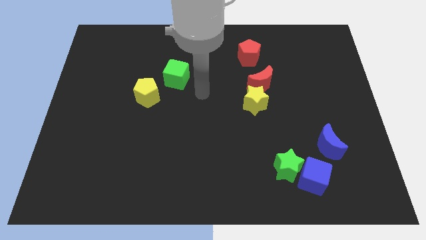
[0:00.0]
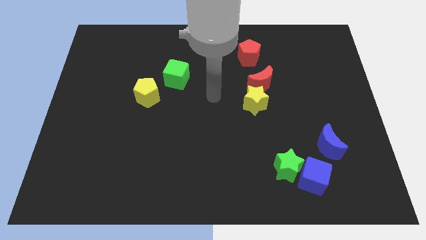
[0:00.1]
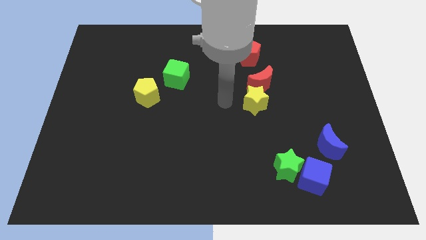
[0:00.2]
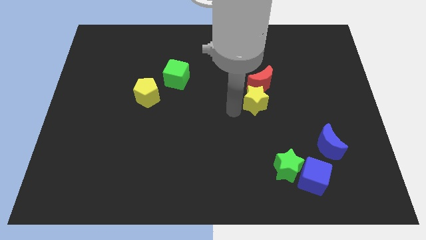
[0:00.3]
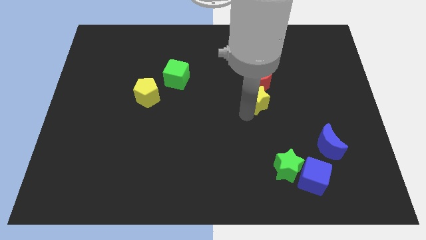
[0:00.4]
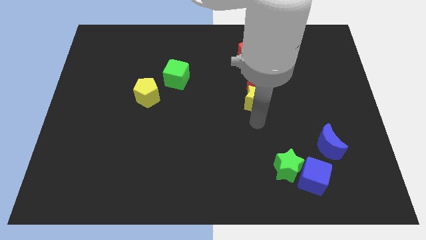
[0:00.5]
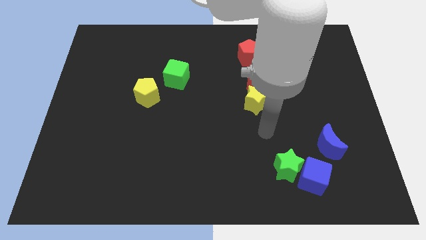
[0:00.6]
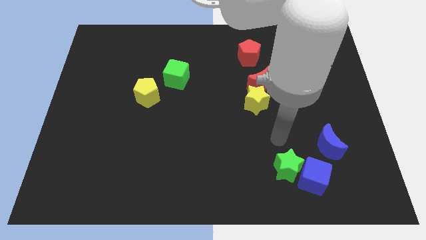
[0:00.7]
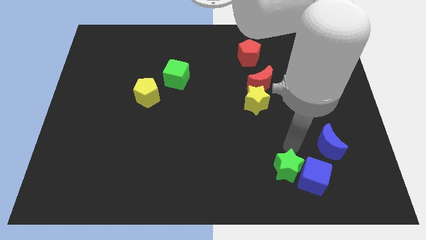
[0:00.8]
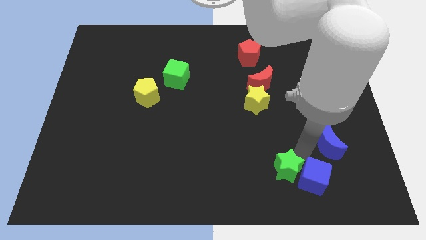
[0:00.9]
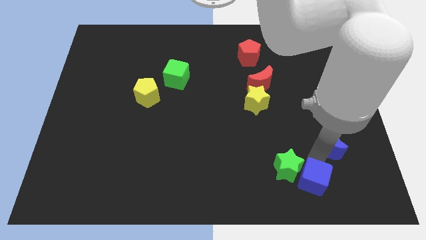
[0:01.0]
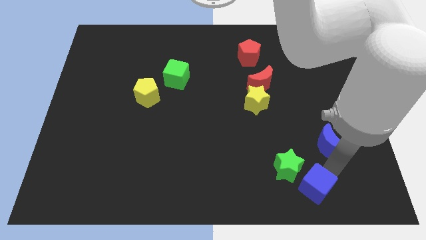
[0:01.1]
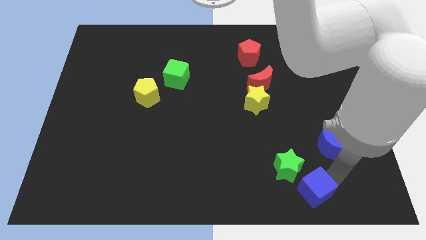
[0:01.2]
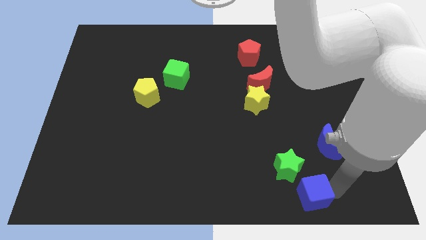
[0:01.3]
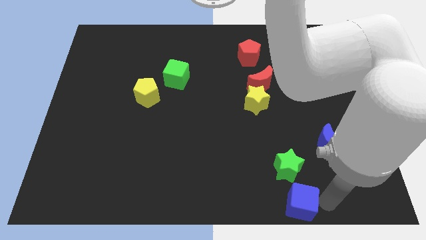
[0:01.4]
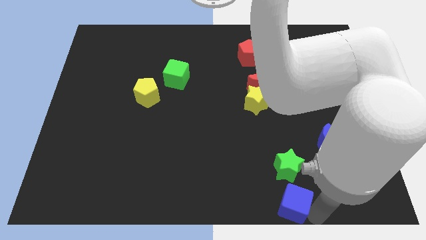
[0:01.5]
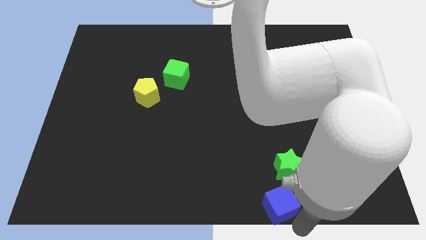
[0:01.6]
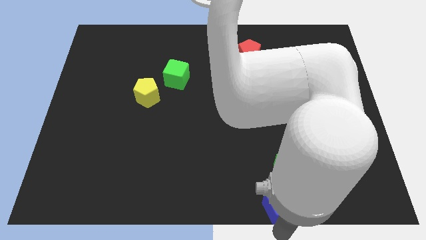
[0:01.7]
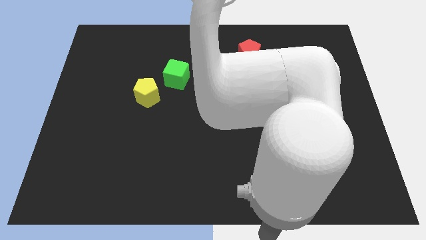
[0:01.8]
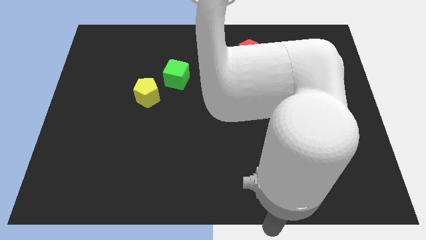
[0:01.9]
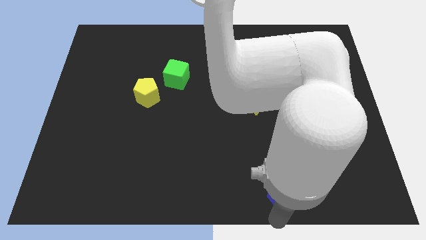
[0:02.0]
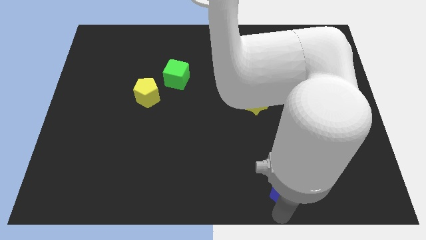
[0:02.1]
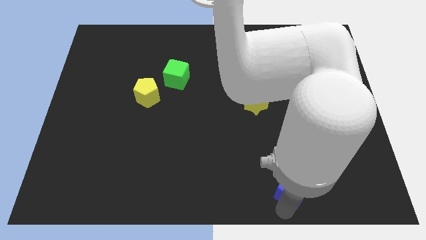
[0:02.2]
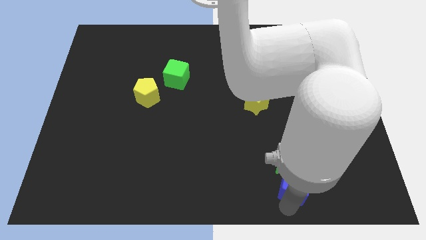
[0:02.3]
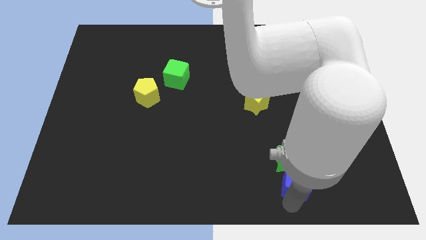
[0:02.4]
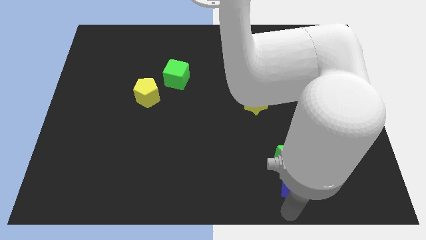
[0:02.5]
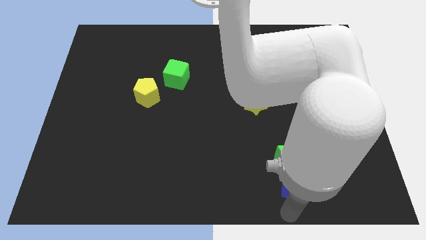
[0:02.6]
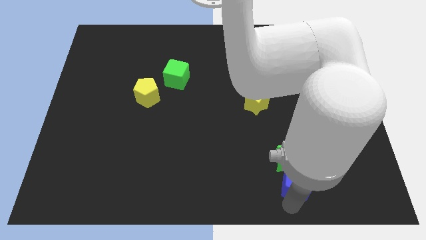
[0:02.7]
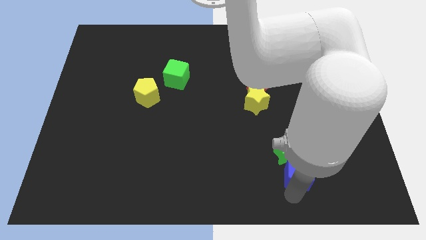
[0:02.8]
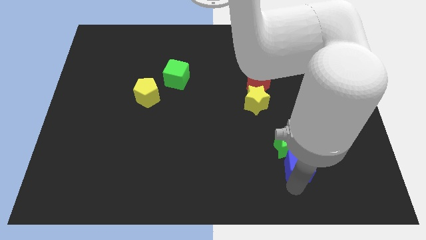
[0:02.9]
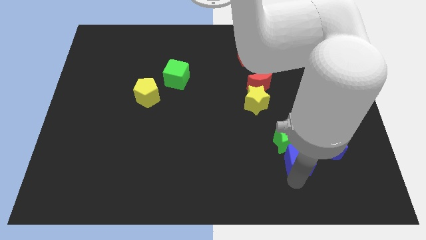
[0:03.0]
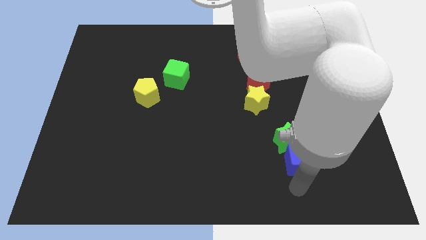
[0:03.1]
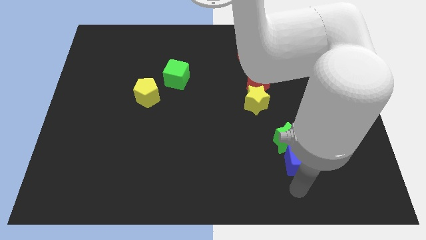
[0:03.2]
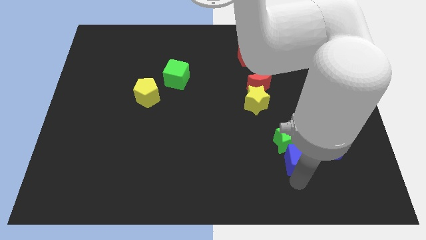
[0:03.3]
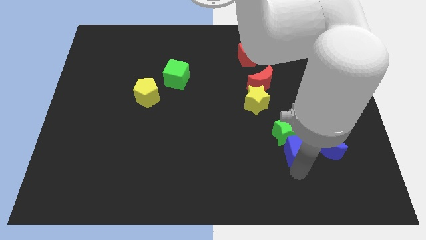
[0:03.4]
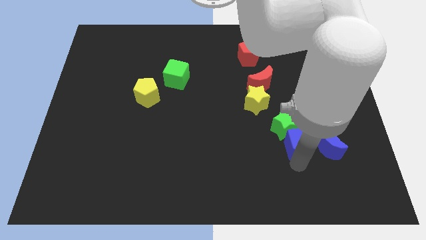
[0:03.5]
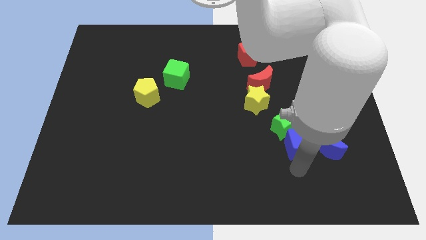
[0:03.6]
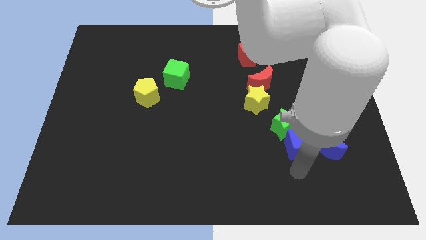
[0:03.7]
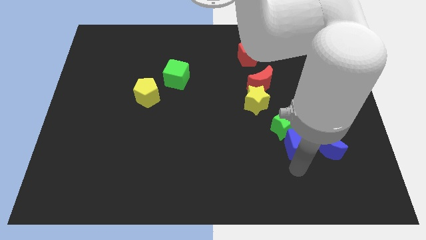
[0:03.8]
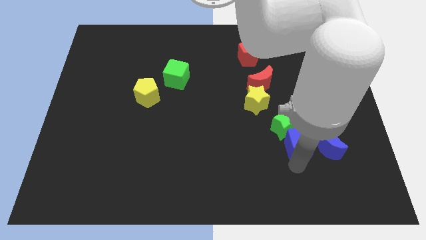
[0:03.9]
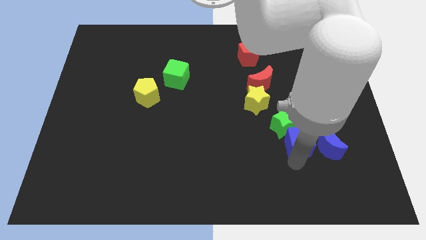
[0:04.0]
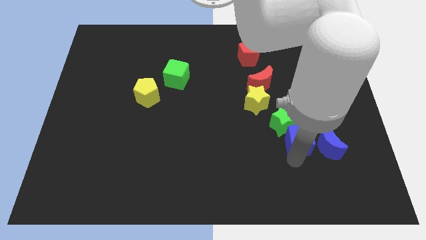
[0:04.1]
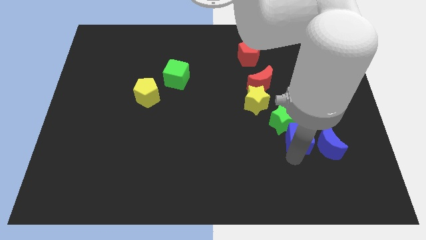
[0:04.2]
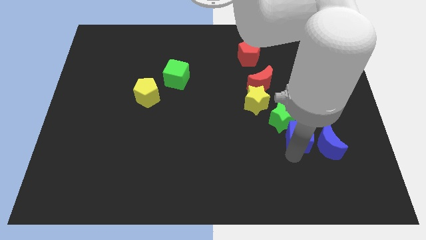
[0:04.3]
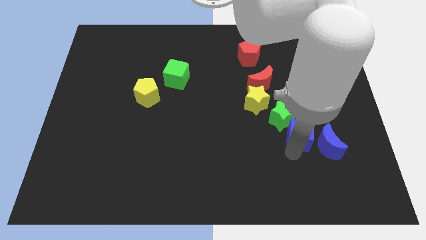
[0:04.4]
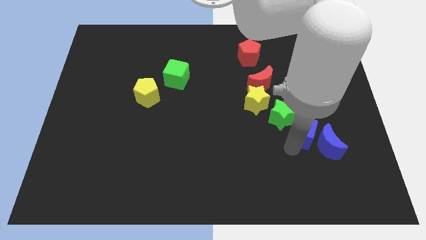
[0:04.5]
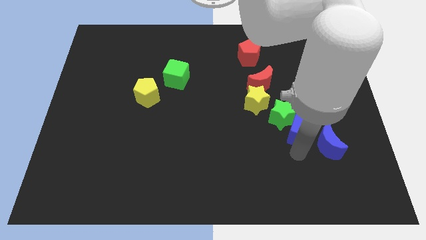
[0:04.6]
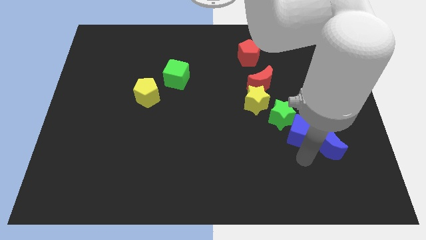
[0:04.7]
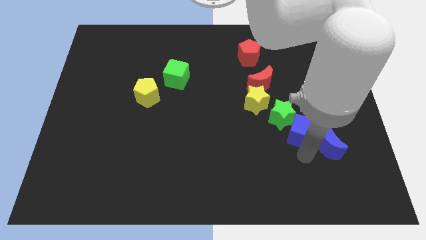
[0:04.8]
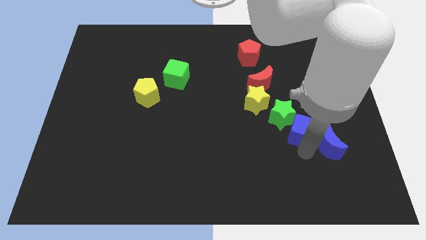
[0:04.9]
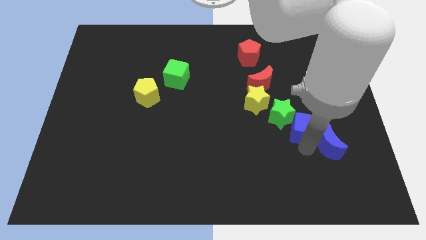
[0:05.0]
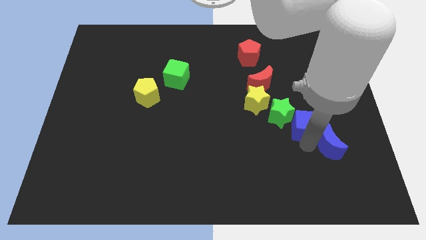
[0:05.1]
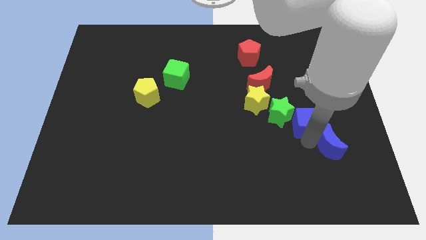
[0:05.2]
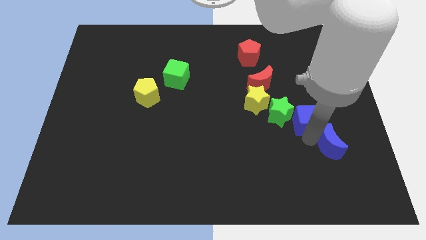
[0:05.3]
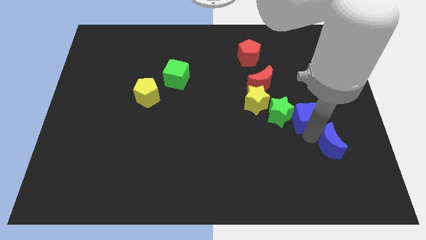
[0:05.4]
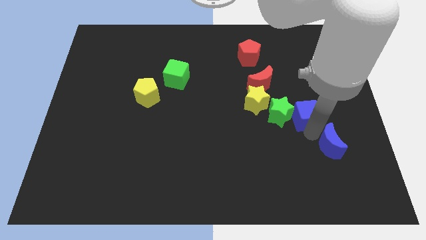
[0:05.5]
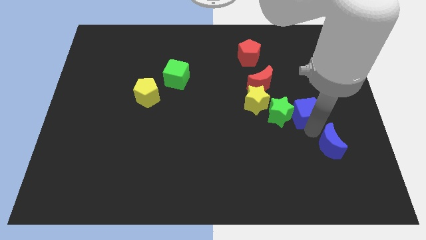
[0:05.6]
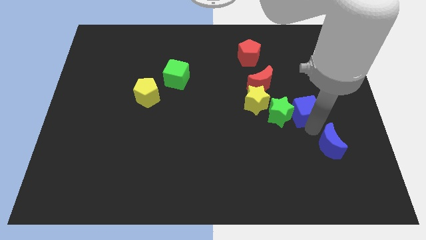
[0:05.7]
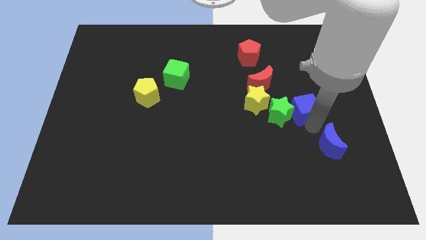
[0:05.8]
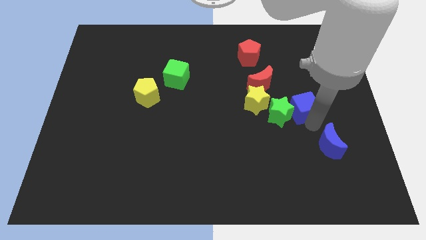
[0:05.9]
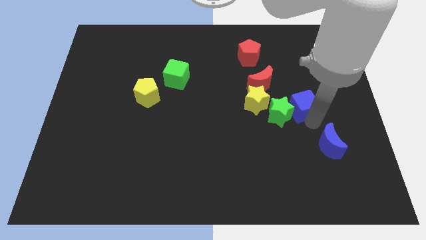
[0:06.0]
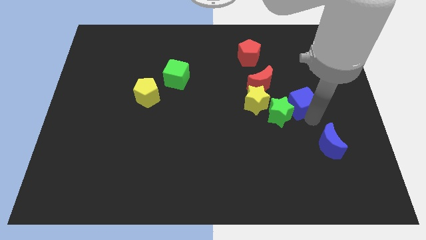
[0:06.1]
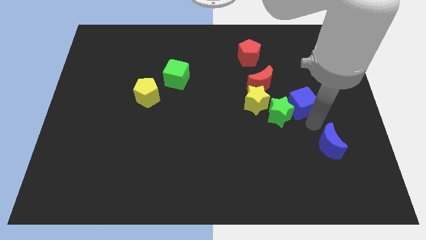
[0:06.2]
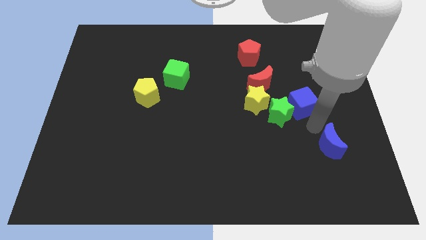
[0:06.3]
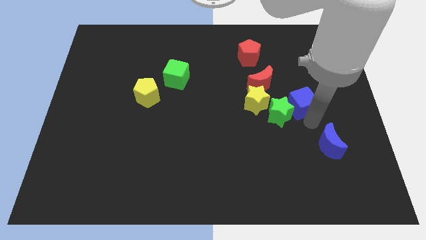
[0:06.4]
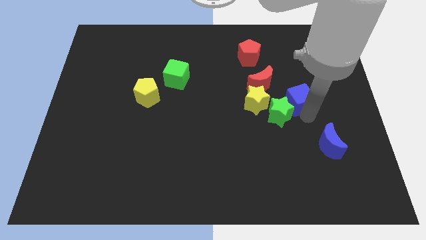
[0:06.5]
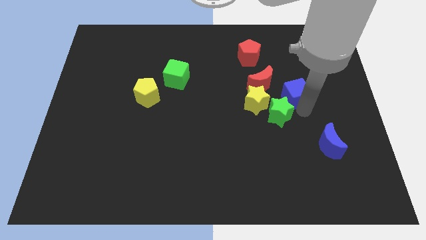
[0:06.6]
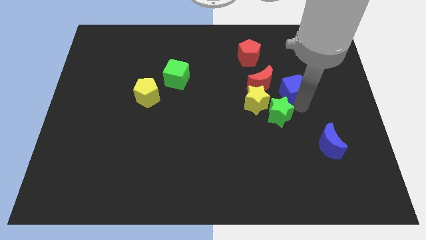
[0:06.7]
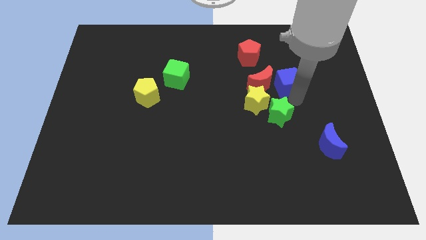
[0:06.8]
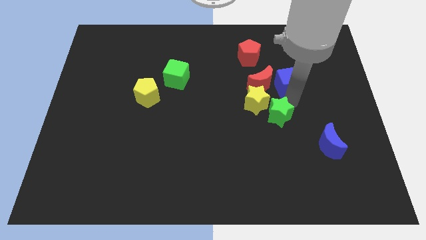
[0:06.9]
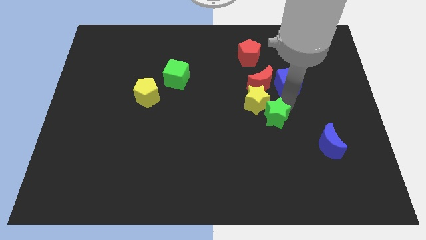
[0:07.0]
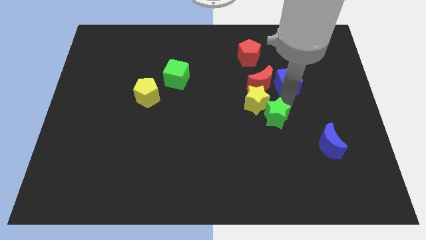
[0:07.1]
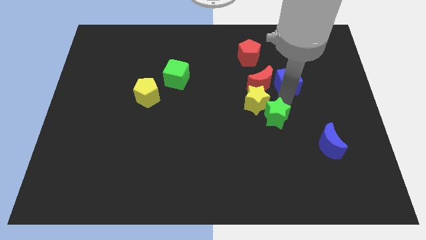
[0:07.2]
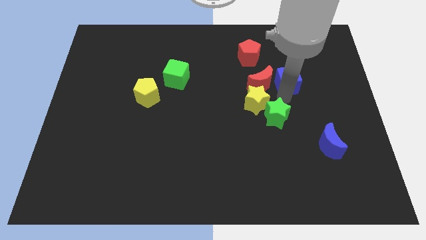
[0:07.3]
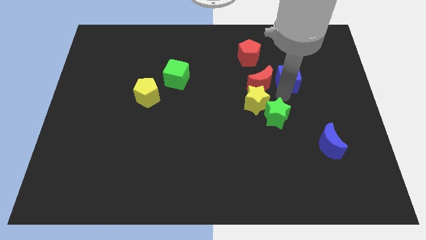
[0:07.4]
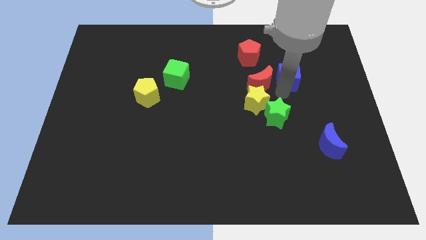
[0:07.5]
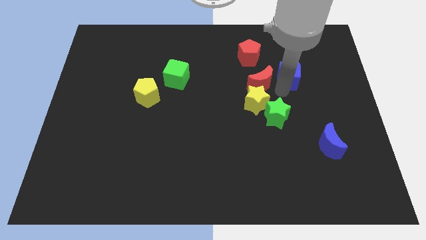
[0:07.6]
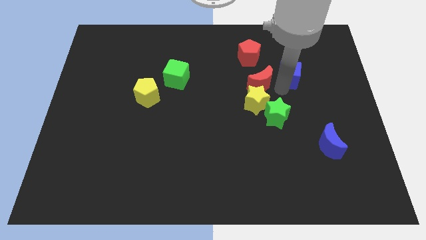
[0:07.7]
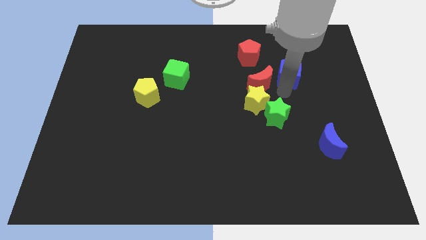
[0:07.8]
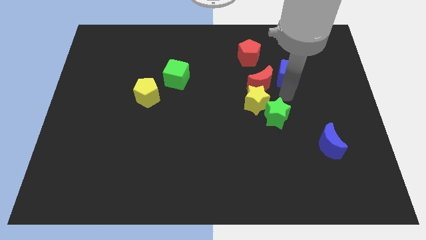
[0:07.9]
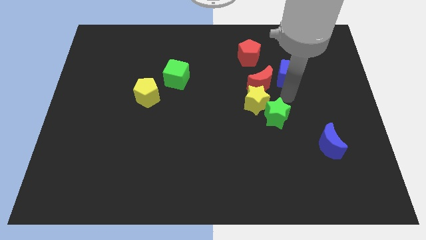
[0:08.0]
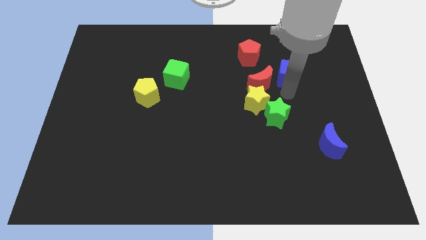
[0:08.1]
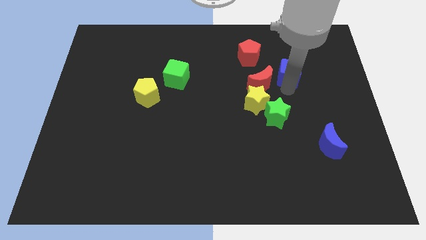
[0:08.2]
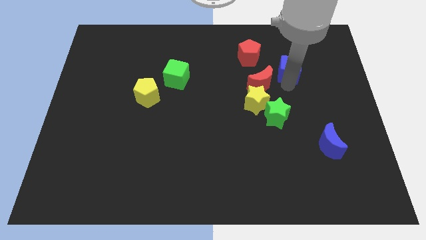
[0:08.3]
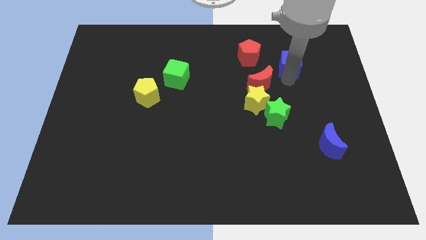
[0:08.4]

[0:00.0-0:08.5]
slide the blue cube just right of the red pentagon
